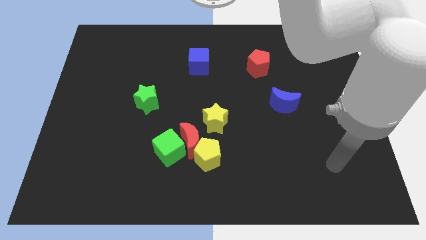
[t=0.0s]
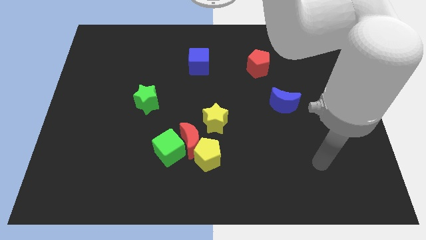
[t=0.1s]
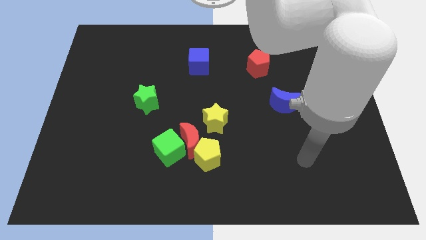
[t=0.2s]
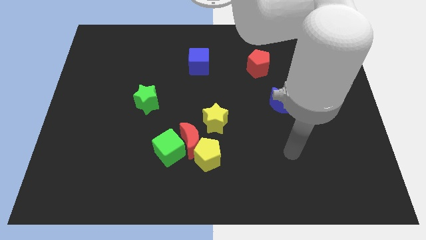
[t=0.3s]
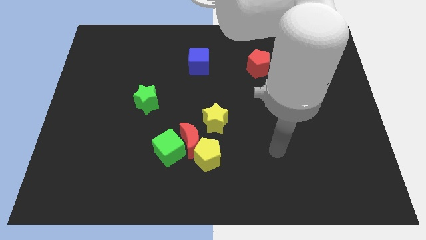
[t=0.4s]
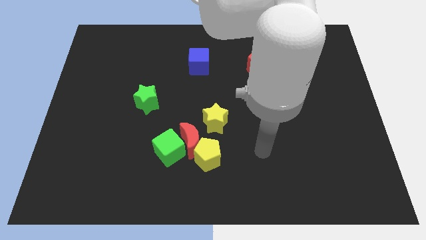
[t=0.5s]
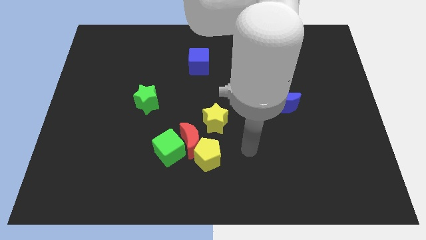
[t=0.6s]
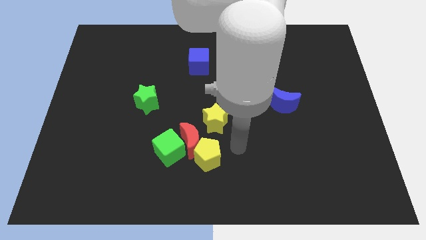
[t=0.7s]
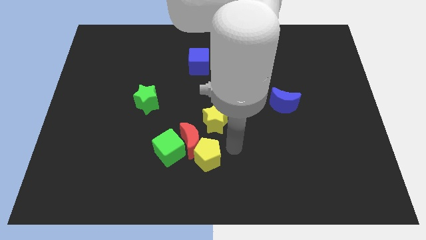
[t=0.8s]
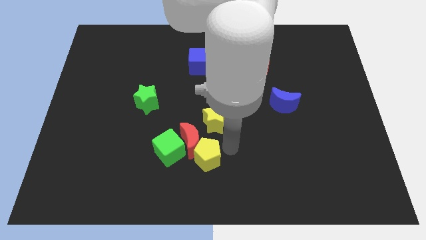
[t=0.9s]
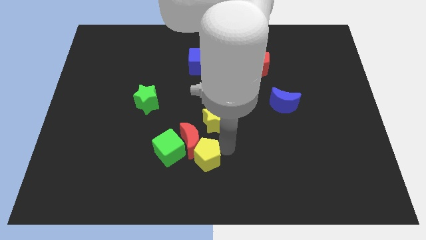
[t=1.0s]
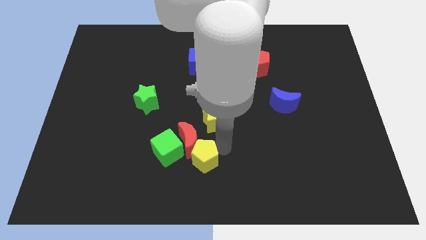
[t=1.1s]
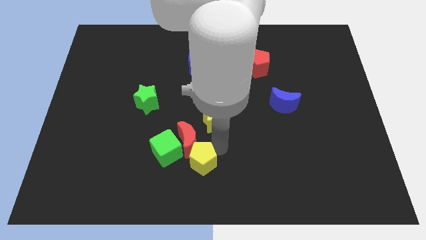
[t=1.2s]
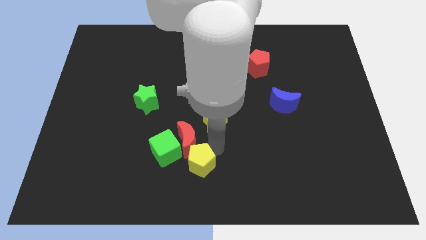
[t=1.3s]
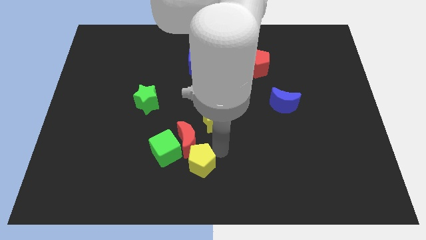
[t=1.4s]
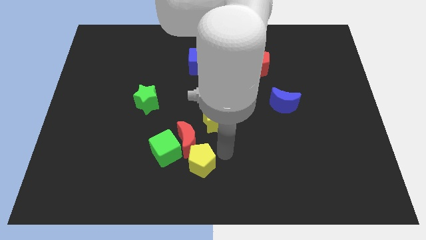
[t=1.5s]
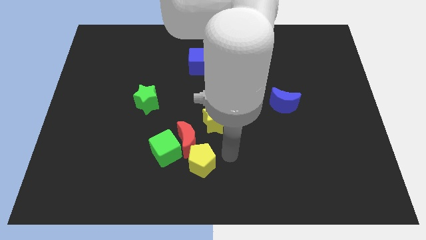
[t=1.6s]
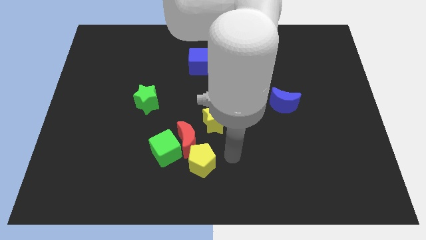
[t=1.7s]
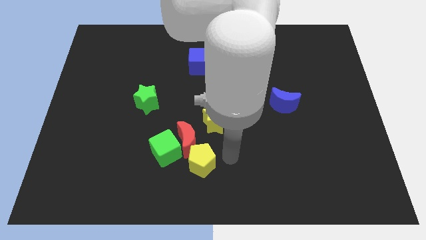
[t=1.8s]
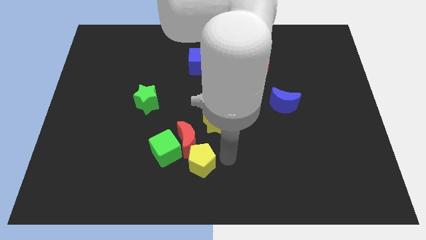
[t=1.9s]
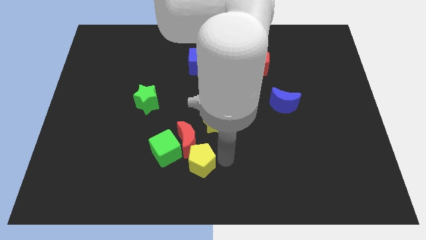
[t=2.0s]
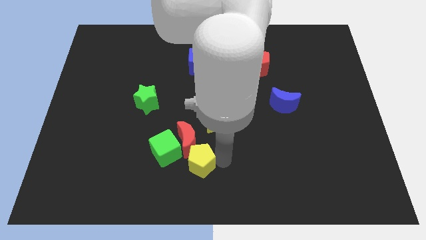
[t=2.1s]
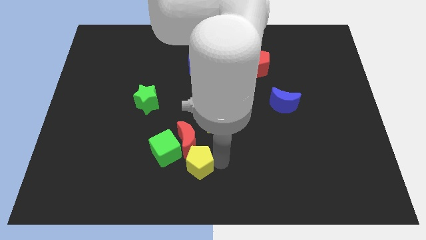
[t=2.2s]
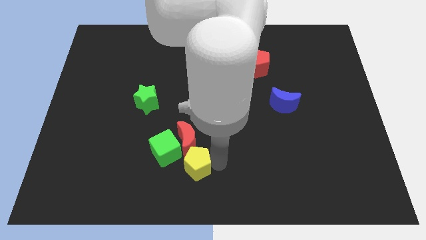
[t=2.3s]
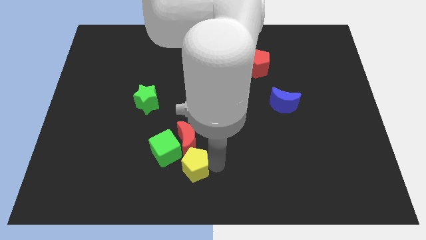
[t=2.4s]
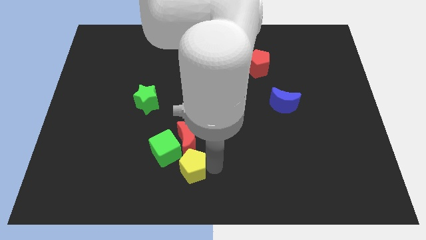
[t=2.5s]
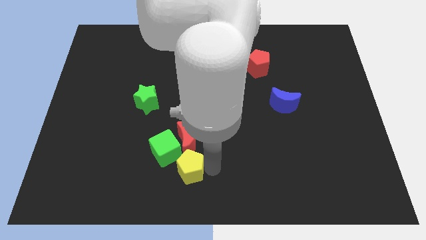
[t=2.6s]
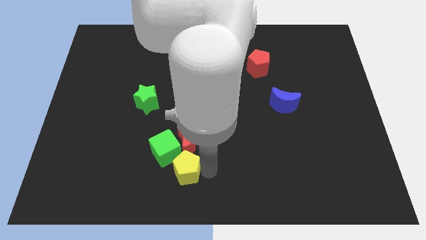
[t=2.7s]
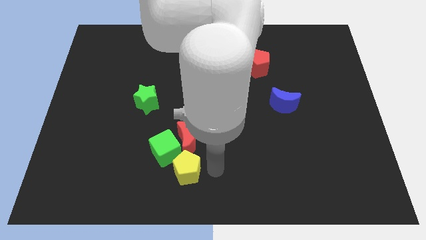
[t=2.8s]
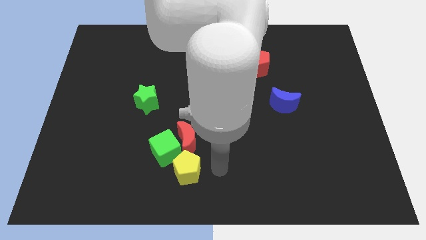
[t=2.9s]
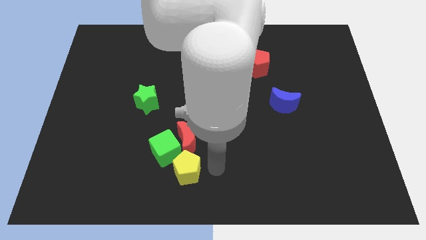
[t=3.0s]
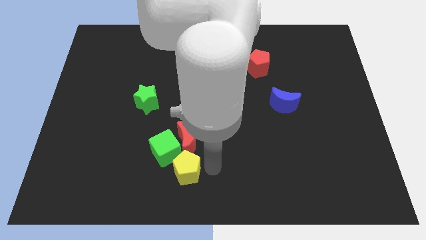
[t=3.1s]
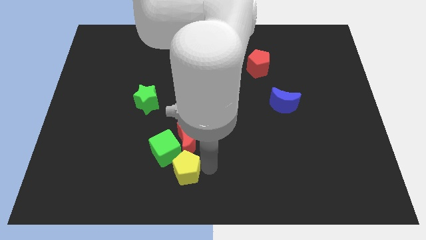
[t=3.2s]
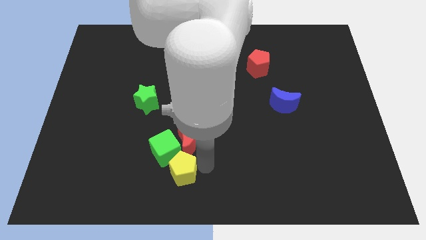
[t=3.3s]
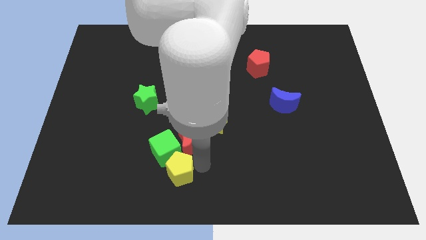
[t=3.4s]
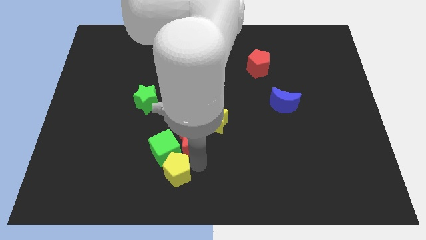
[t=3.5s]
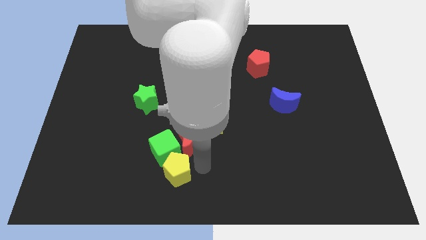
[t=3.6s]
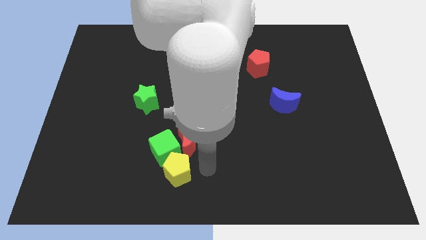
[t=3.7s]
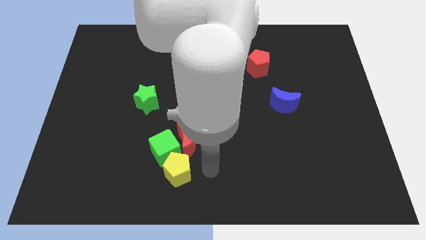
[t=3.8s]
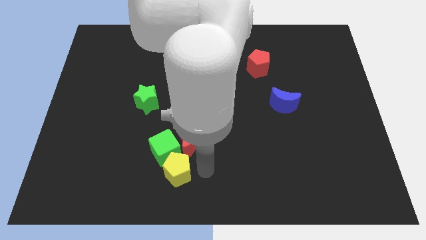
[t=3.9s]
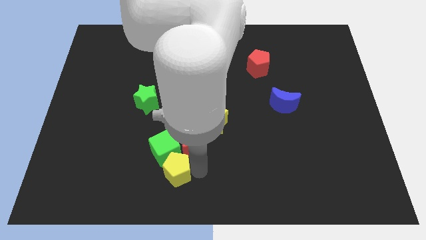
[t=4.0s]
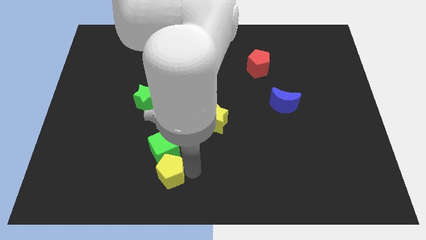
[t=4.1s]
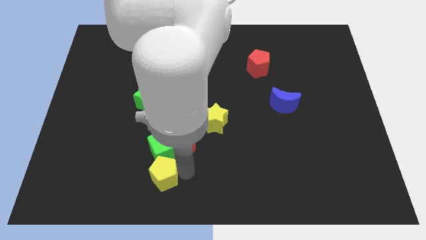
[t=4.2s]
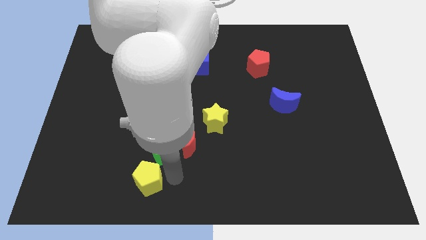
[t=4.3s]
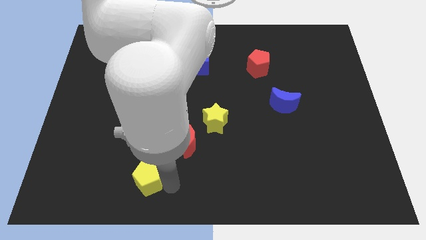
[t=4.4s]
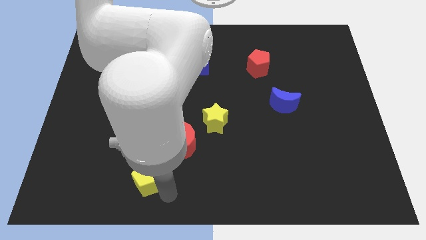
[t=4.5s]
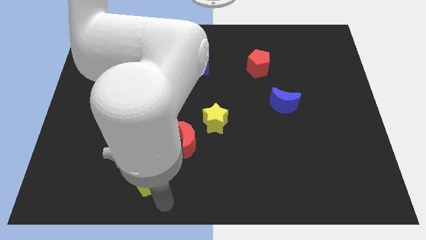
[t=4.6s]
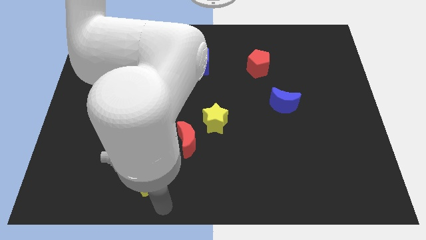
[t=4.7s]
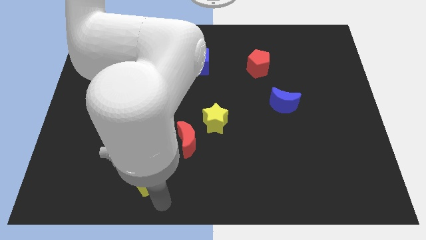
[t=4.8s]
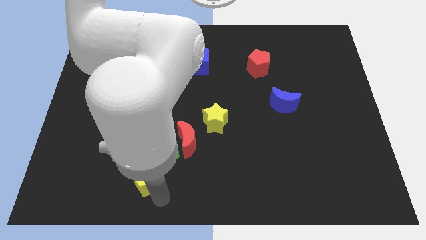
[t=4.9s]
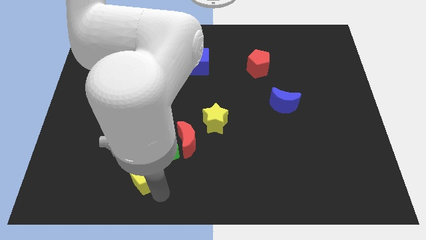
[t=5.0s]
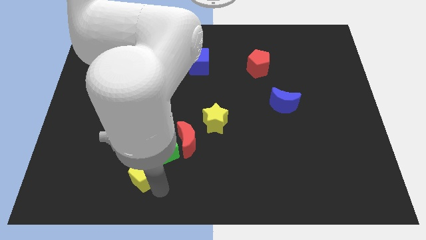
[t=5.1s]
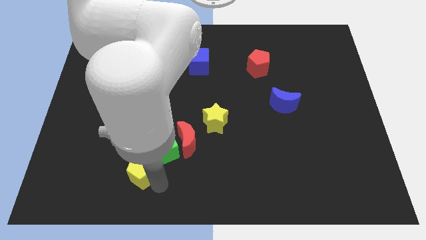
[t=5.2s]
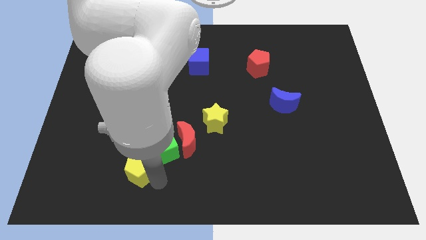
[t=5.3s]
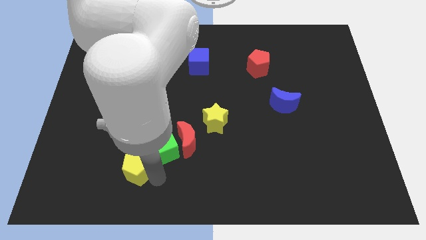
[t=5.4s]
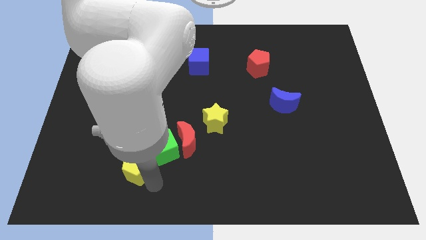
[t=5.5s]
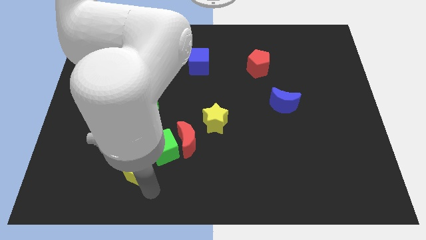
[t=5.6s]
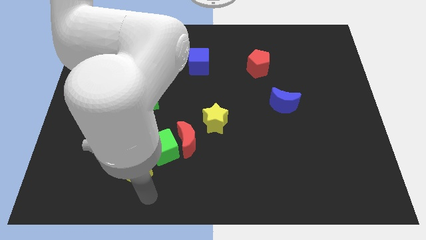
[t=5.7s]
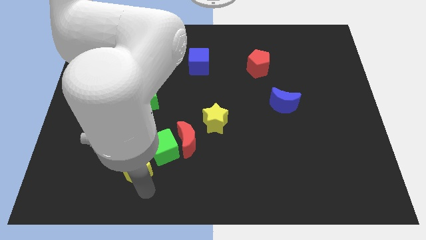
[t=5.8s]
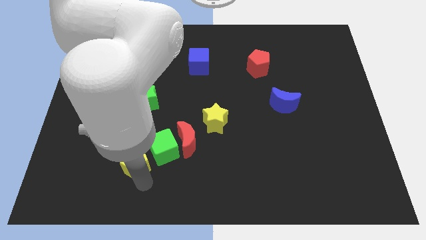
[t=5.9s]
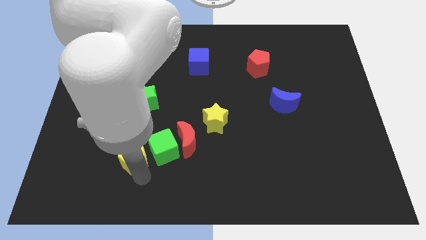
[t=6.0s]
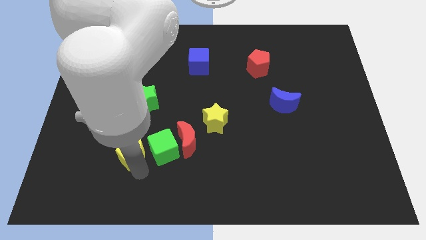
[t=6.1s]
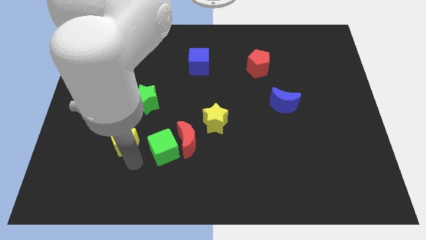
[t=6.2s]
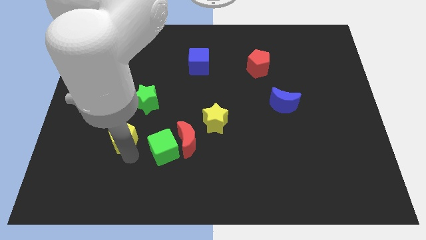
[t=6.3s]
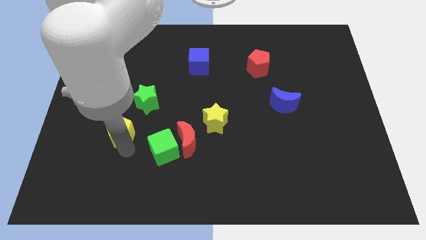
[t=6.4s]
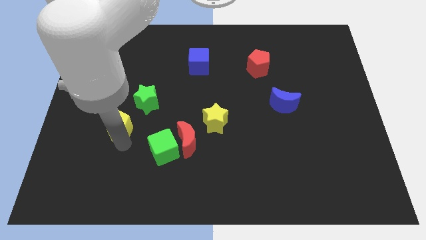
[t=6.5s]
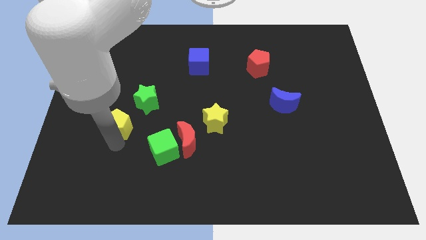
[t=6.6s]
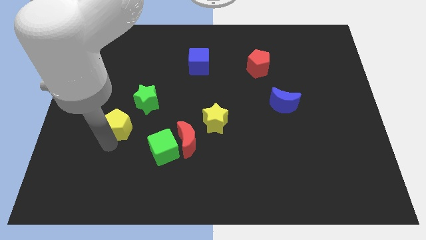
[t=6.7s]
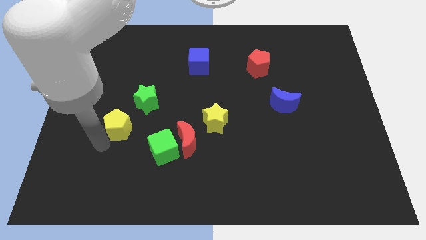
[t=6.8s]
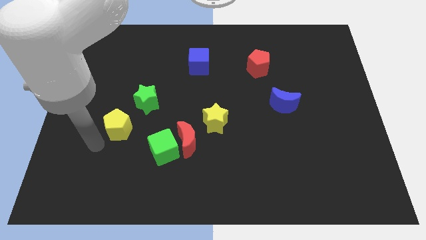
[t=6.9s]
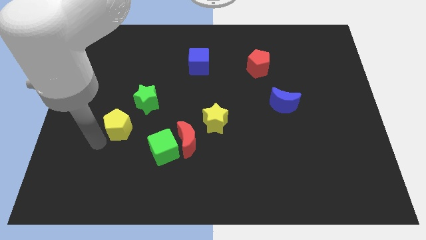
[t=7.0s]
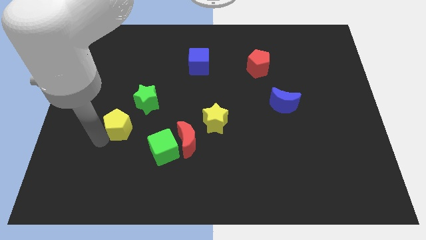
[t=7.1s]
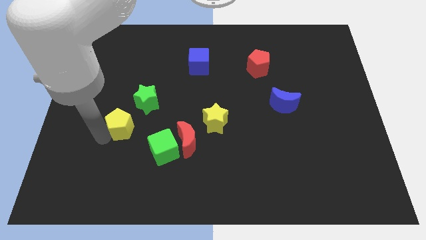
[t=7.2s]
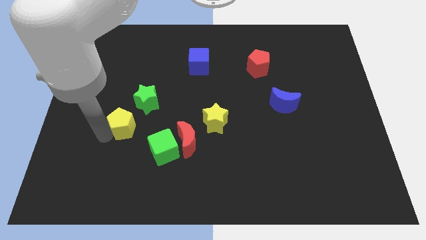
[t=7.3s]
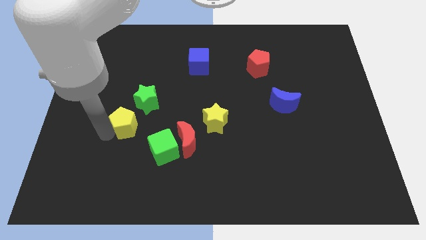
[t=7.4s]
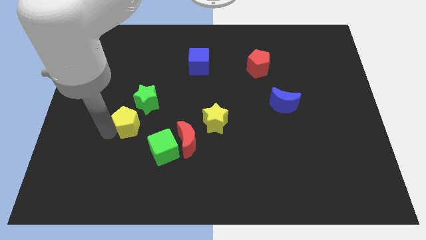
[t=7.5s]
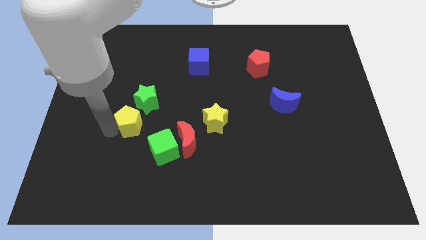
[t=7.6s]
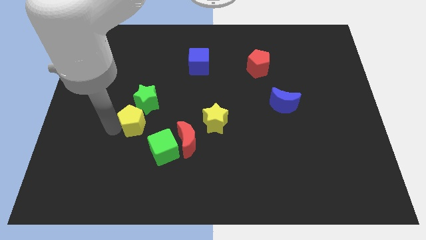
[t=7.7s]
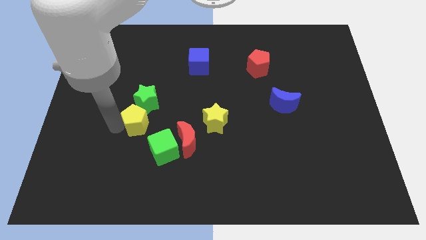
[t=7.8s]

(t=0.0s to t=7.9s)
slide the yellow pentagon next to the green star
